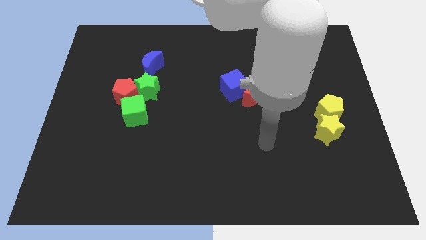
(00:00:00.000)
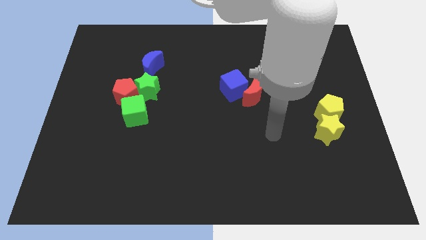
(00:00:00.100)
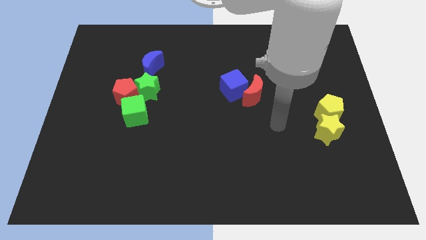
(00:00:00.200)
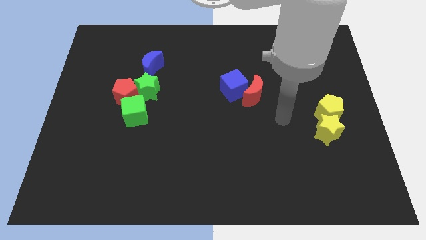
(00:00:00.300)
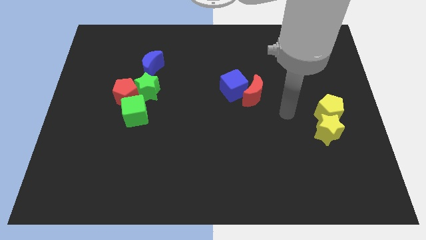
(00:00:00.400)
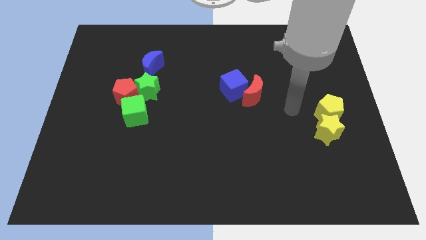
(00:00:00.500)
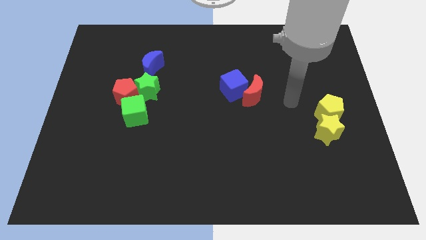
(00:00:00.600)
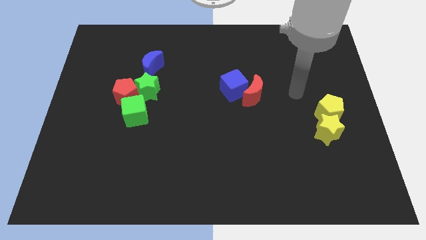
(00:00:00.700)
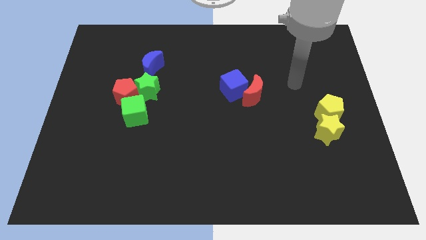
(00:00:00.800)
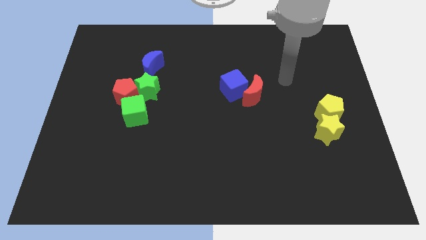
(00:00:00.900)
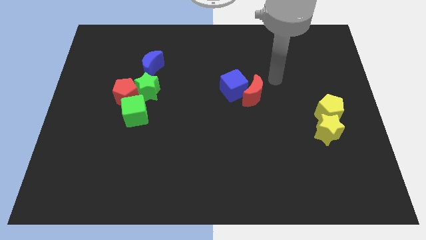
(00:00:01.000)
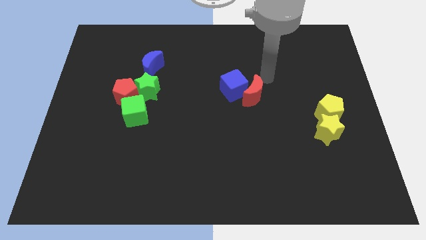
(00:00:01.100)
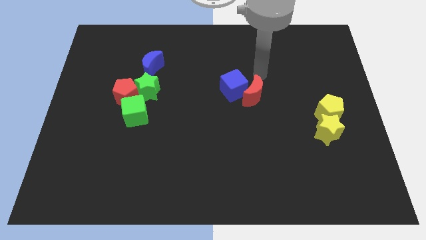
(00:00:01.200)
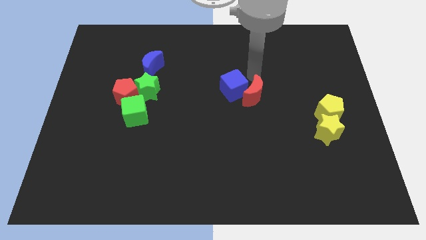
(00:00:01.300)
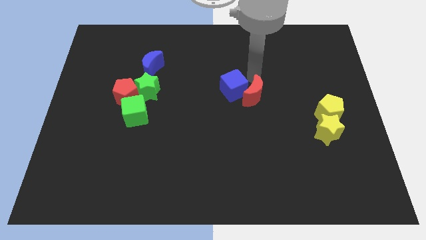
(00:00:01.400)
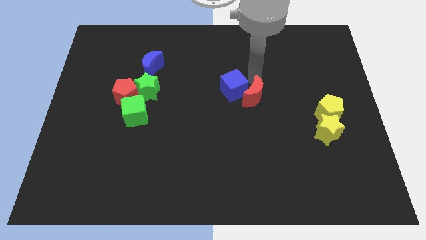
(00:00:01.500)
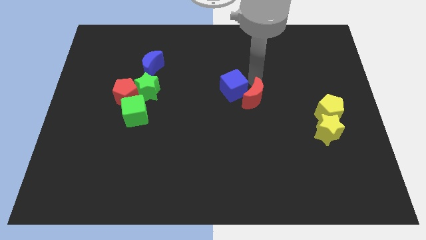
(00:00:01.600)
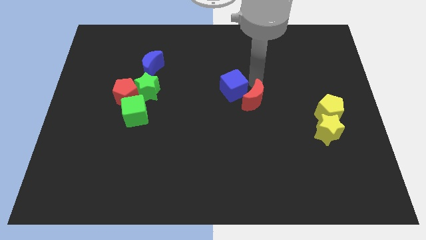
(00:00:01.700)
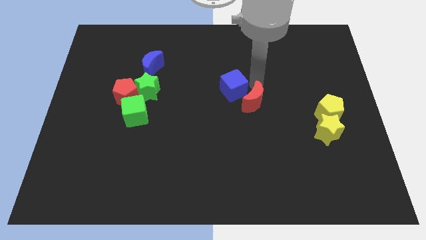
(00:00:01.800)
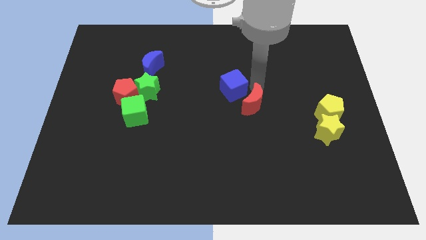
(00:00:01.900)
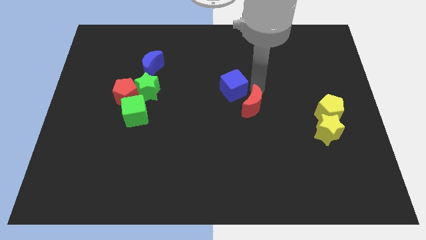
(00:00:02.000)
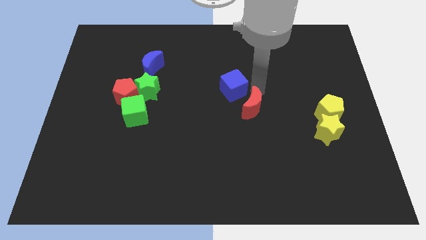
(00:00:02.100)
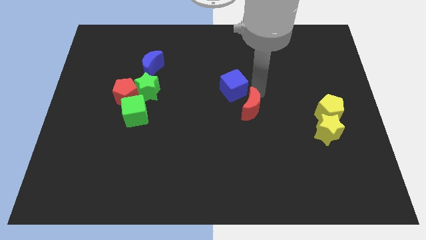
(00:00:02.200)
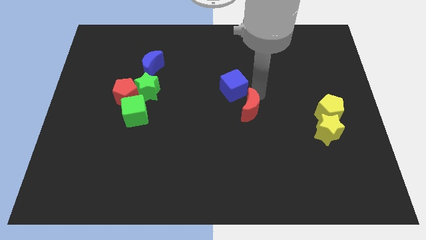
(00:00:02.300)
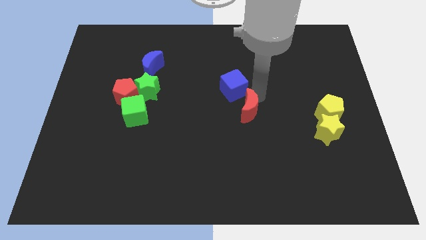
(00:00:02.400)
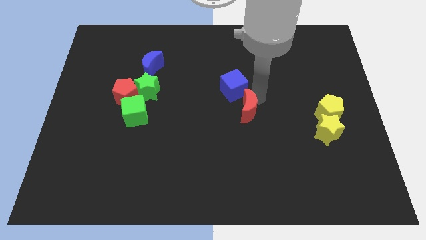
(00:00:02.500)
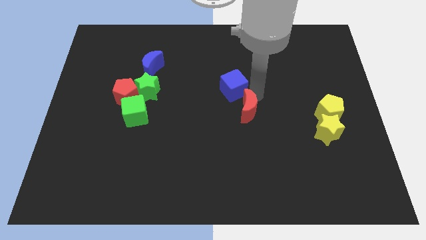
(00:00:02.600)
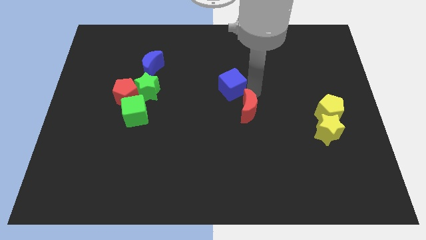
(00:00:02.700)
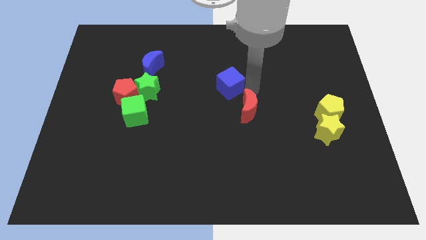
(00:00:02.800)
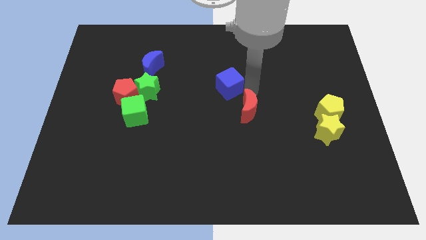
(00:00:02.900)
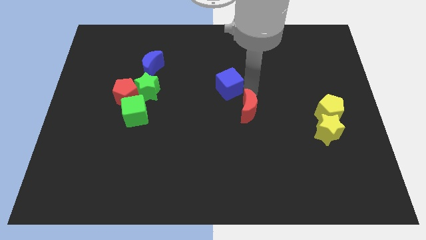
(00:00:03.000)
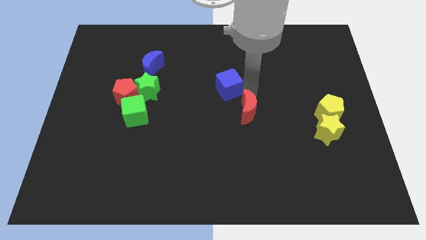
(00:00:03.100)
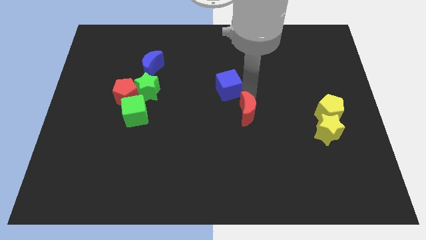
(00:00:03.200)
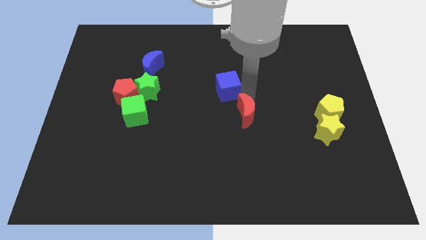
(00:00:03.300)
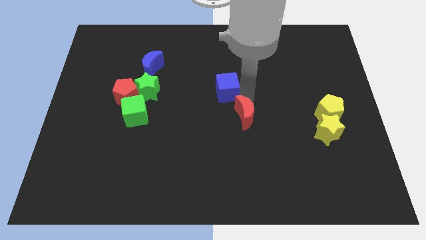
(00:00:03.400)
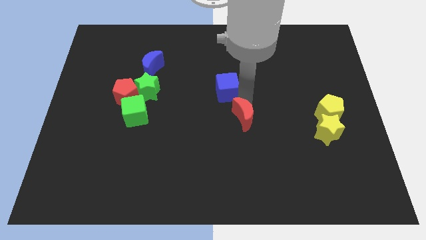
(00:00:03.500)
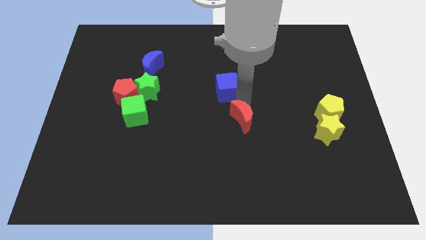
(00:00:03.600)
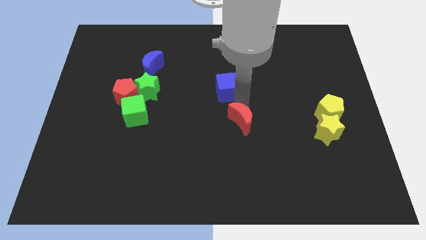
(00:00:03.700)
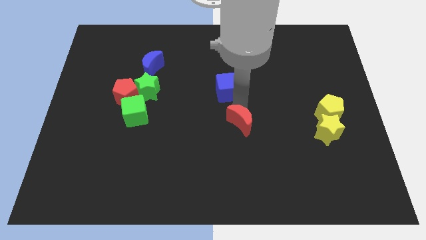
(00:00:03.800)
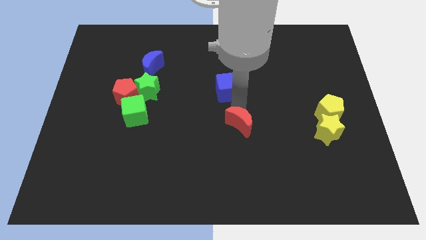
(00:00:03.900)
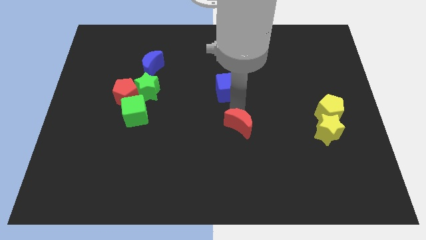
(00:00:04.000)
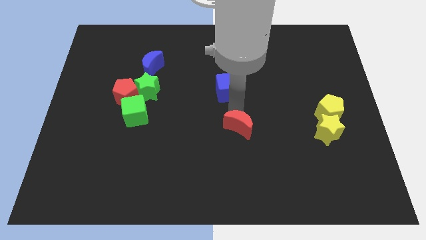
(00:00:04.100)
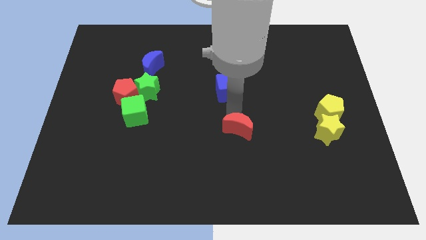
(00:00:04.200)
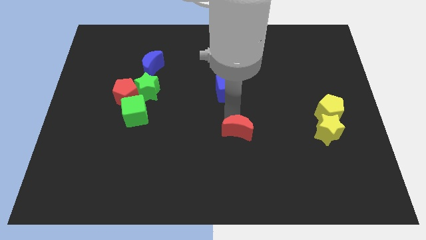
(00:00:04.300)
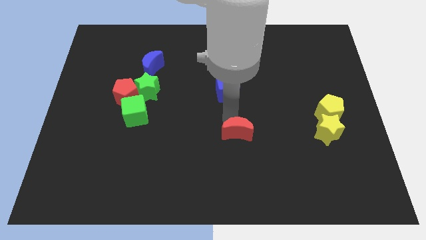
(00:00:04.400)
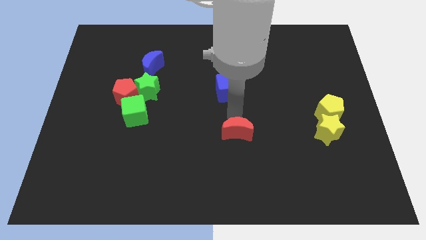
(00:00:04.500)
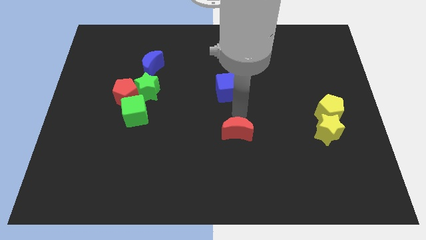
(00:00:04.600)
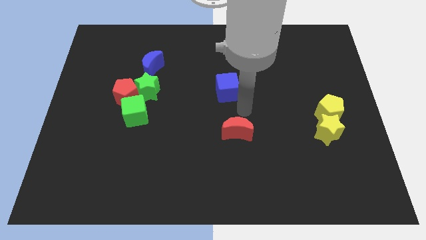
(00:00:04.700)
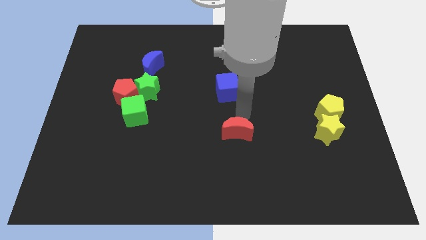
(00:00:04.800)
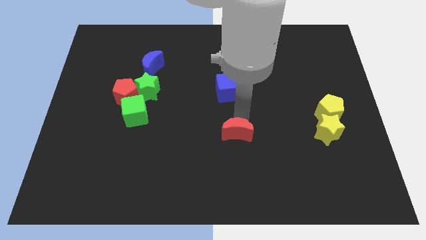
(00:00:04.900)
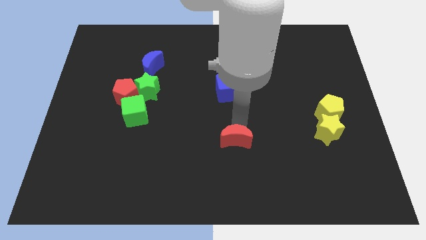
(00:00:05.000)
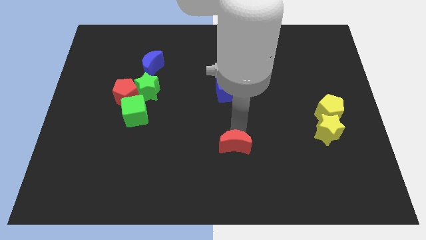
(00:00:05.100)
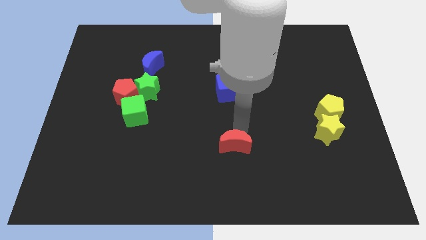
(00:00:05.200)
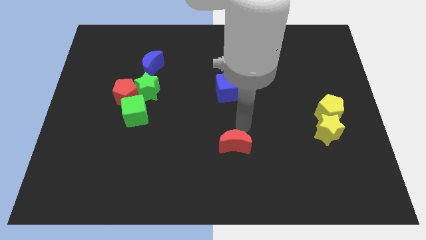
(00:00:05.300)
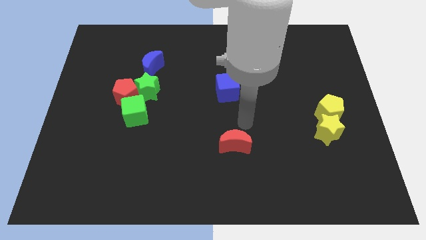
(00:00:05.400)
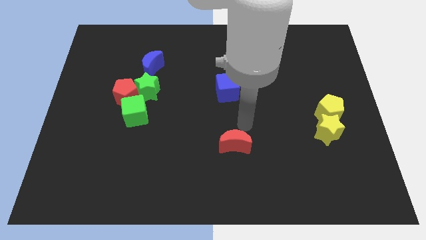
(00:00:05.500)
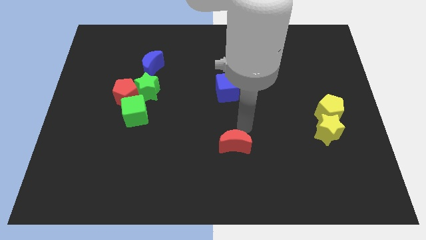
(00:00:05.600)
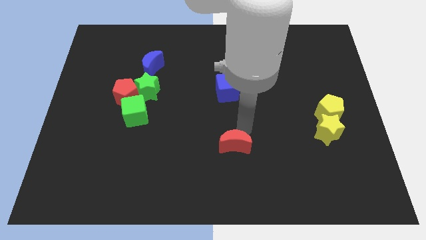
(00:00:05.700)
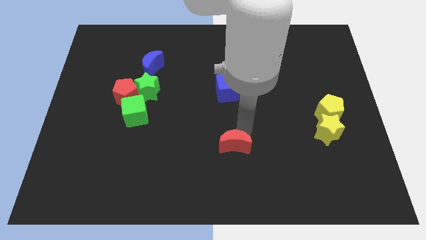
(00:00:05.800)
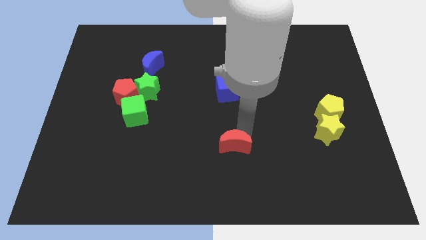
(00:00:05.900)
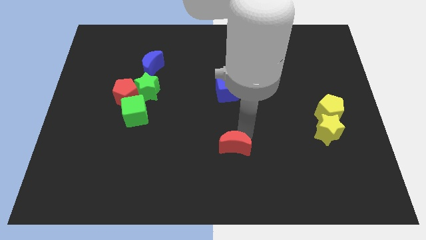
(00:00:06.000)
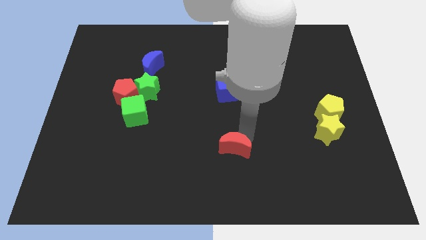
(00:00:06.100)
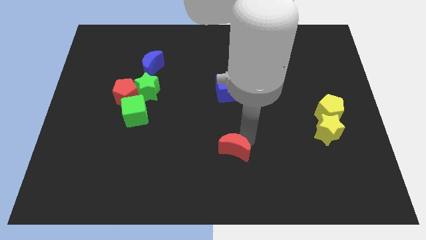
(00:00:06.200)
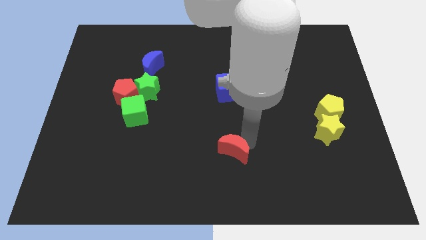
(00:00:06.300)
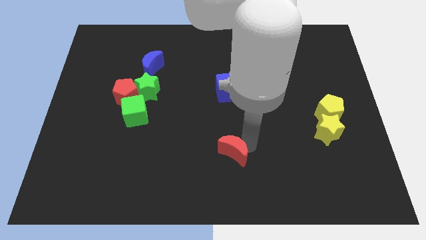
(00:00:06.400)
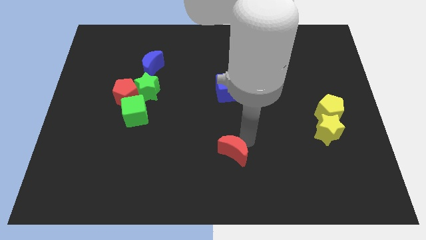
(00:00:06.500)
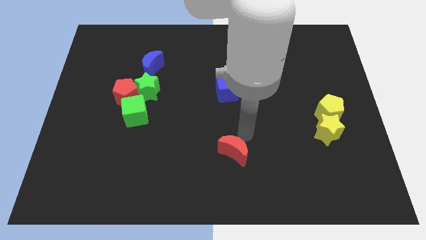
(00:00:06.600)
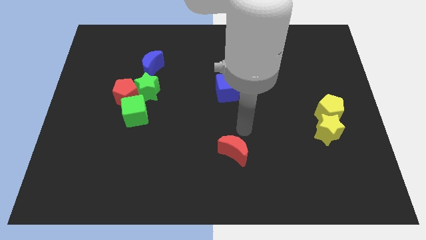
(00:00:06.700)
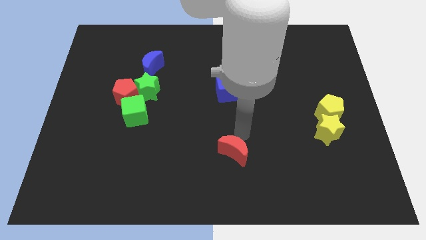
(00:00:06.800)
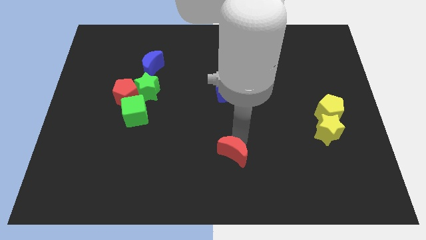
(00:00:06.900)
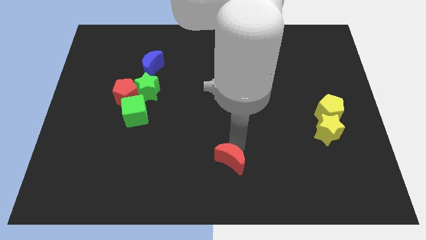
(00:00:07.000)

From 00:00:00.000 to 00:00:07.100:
put the red moon to the bottom side
